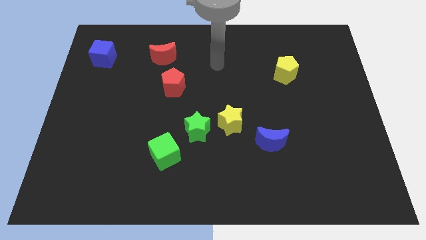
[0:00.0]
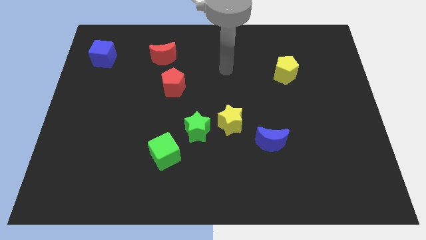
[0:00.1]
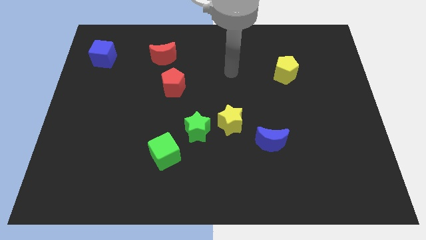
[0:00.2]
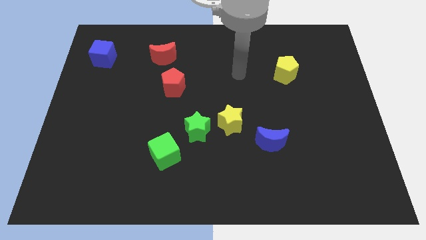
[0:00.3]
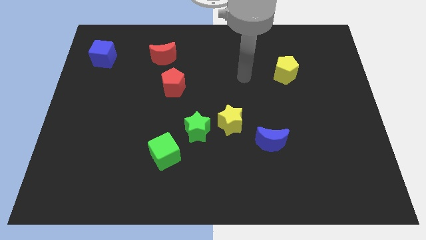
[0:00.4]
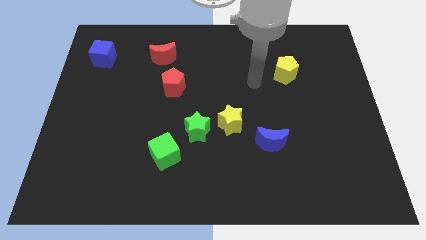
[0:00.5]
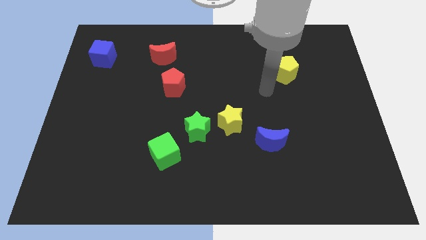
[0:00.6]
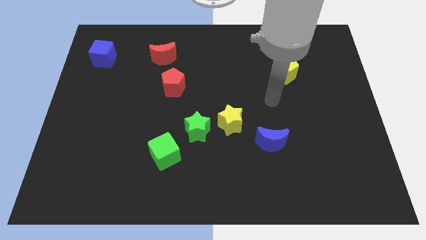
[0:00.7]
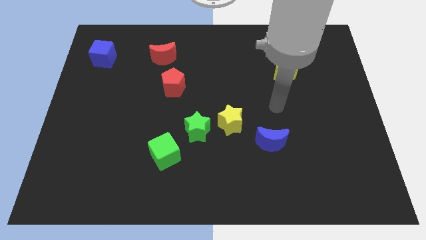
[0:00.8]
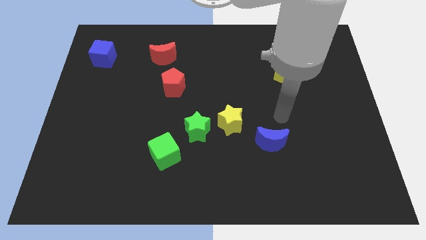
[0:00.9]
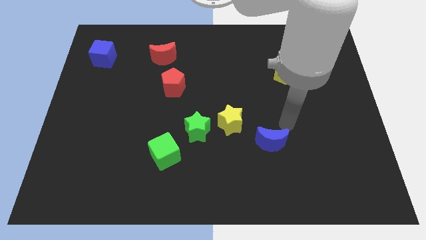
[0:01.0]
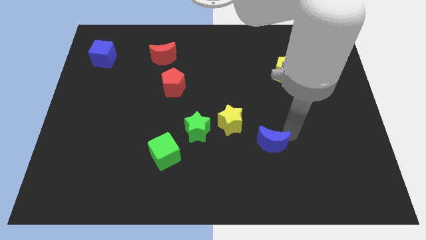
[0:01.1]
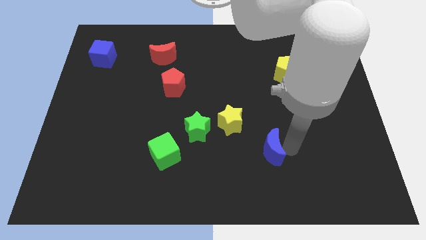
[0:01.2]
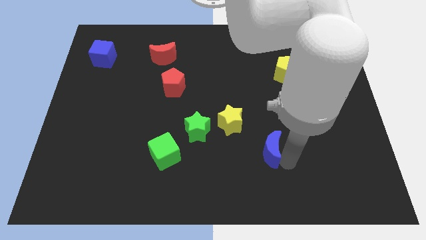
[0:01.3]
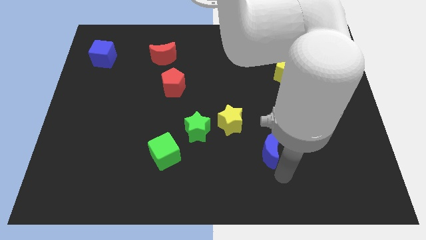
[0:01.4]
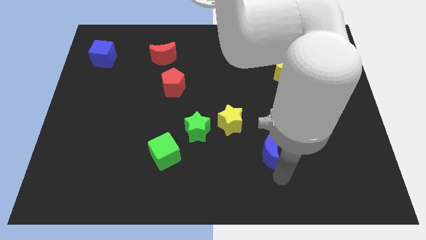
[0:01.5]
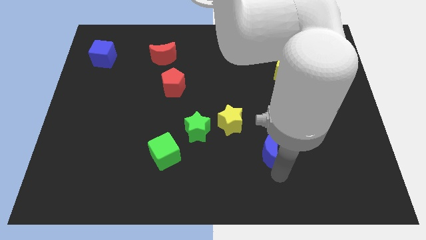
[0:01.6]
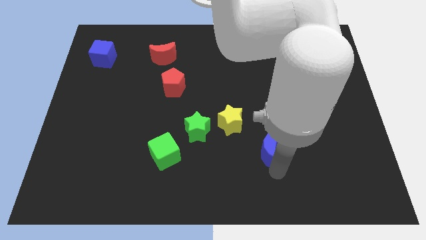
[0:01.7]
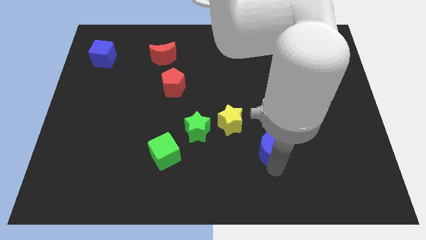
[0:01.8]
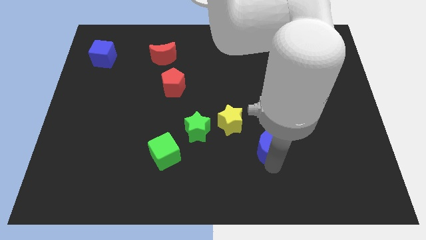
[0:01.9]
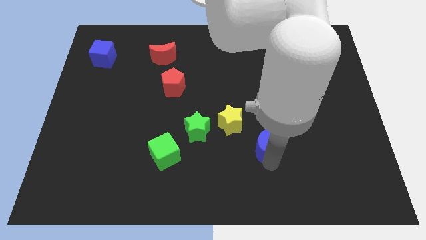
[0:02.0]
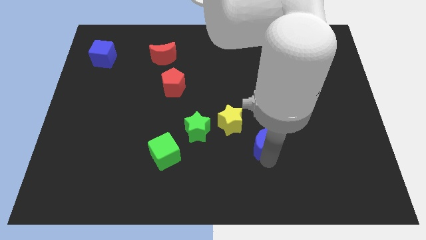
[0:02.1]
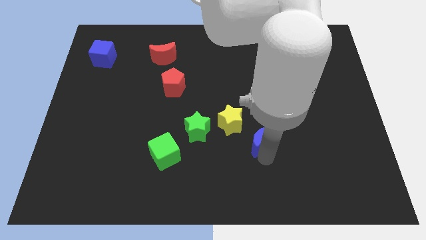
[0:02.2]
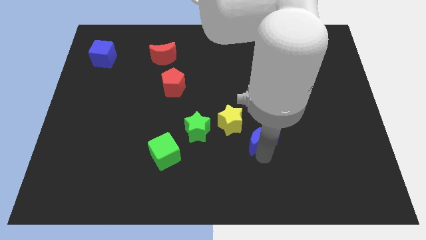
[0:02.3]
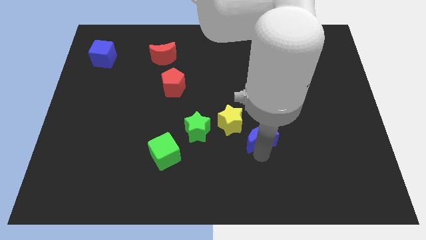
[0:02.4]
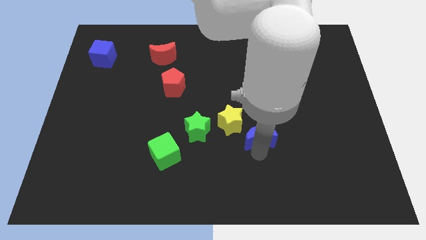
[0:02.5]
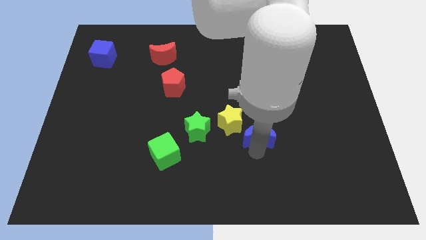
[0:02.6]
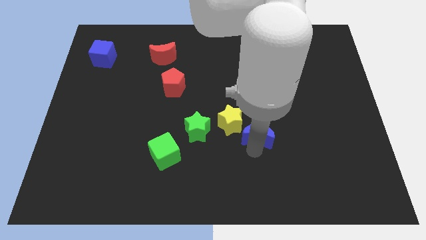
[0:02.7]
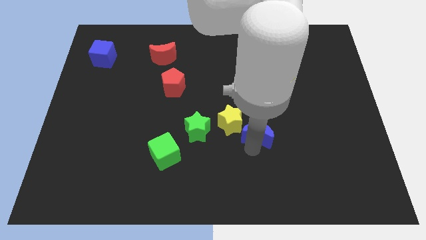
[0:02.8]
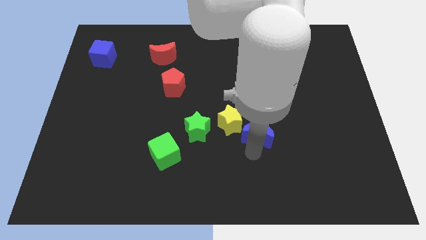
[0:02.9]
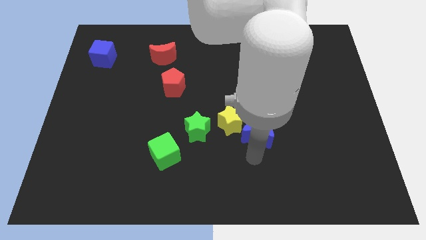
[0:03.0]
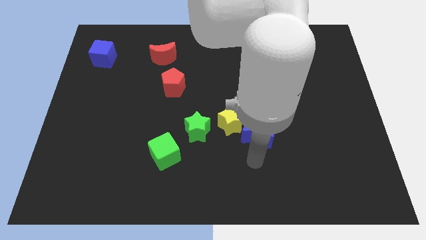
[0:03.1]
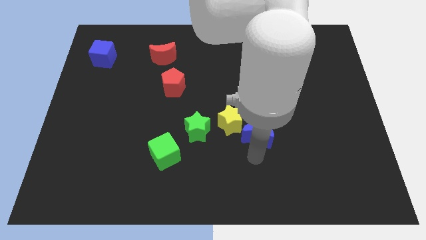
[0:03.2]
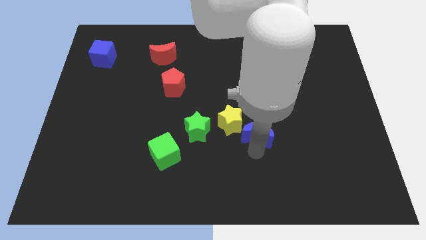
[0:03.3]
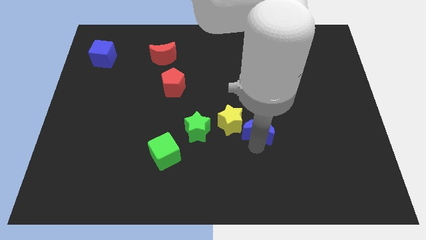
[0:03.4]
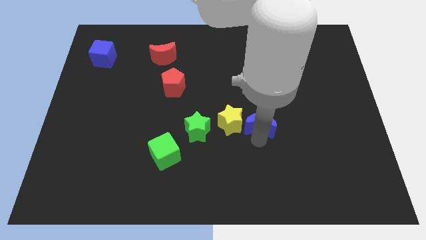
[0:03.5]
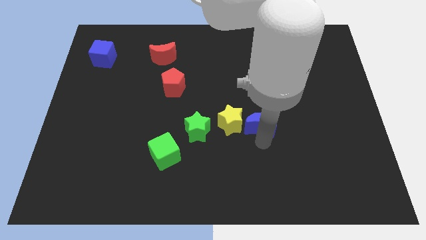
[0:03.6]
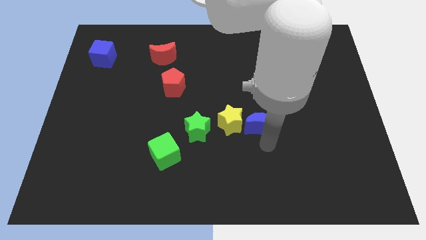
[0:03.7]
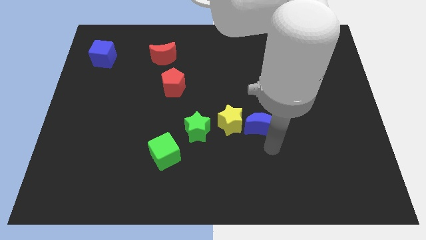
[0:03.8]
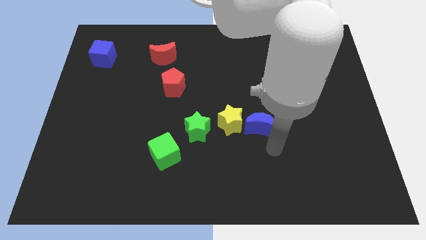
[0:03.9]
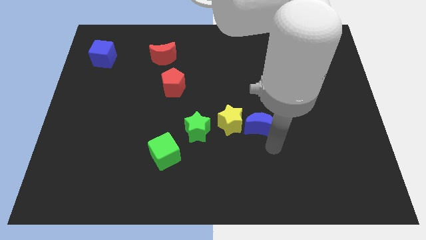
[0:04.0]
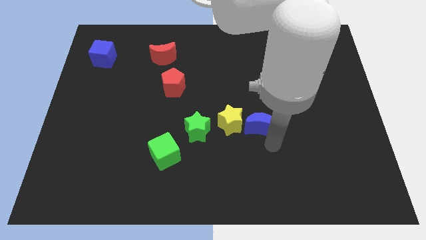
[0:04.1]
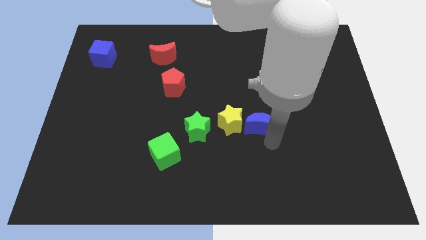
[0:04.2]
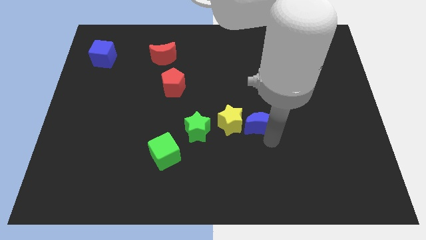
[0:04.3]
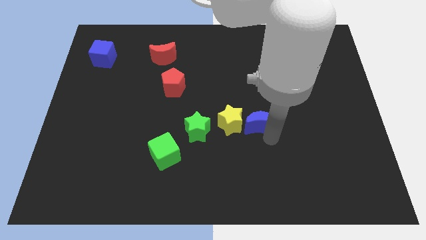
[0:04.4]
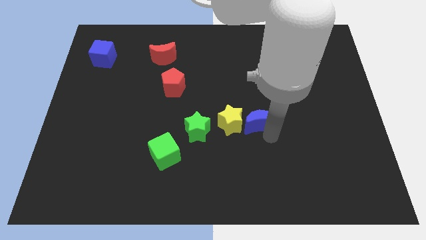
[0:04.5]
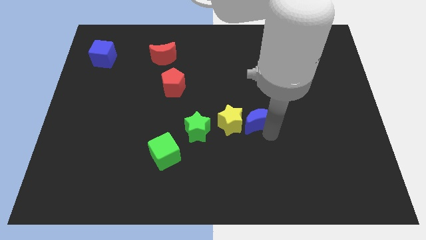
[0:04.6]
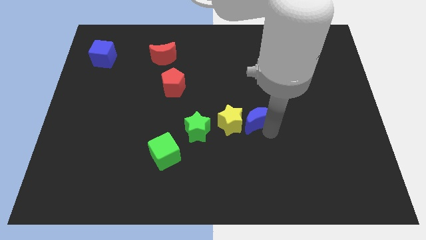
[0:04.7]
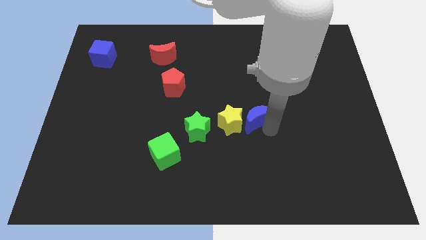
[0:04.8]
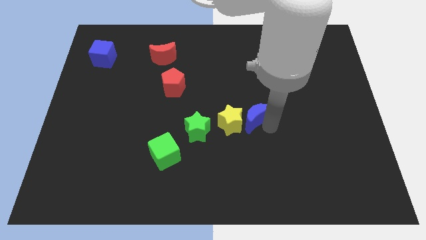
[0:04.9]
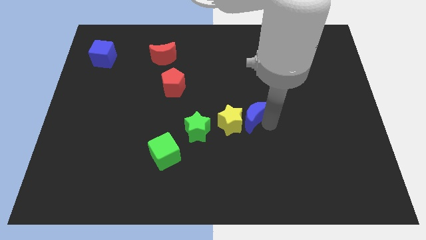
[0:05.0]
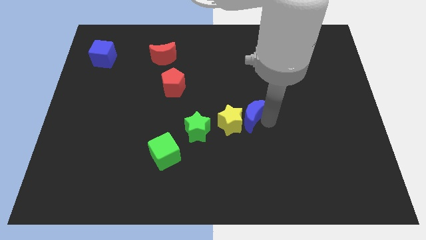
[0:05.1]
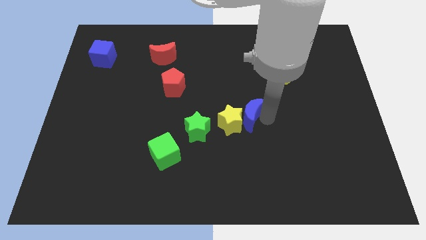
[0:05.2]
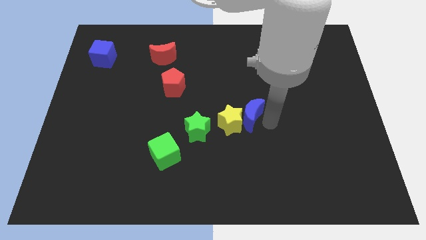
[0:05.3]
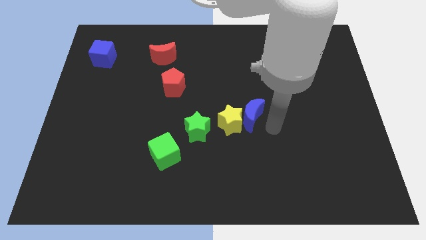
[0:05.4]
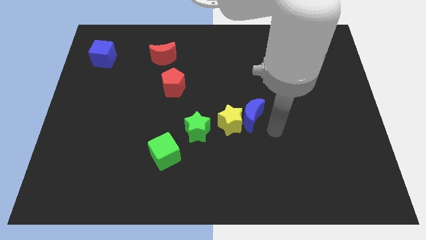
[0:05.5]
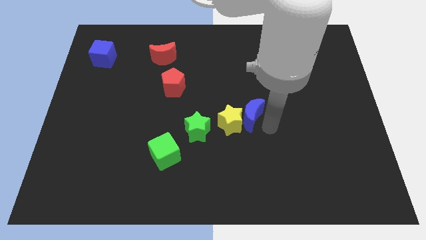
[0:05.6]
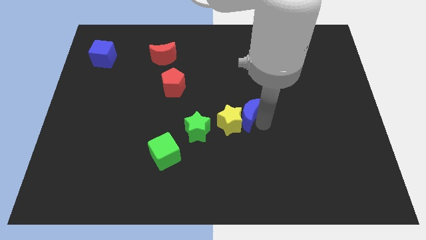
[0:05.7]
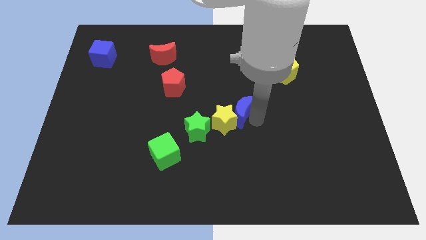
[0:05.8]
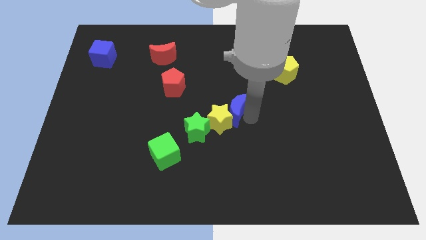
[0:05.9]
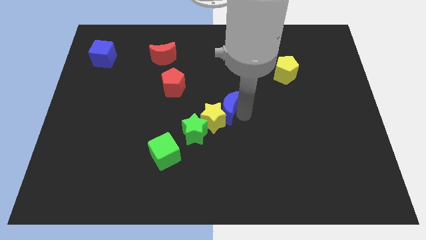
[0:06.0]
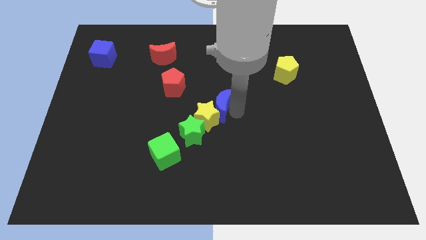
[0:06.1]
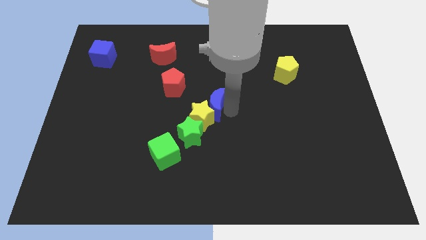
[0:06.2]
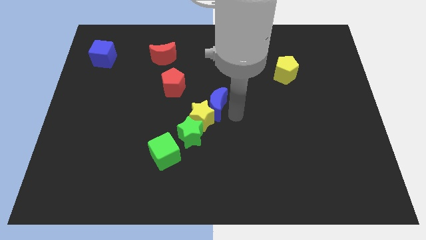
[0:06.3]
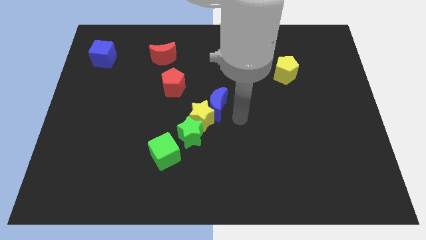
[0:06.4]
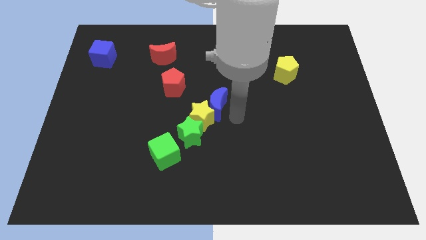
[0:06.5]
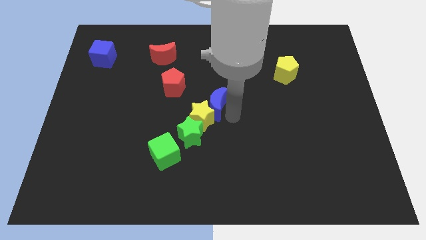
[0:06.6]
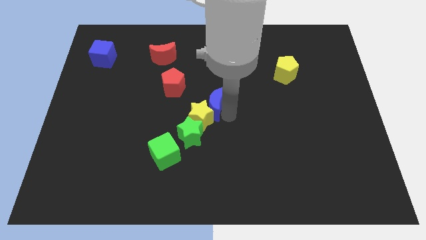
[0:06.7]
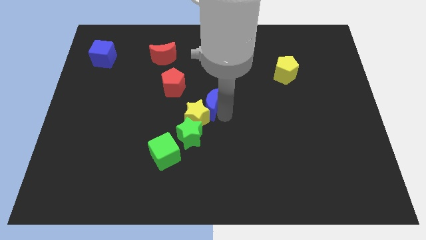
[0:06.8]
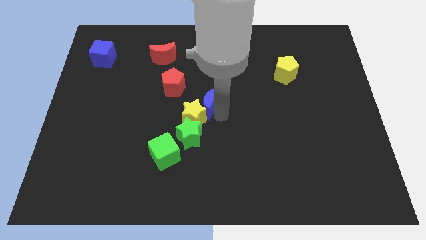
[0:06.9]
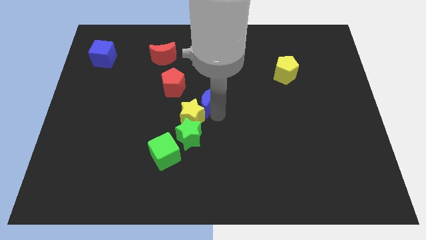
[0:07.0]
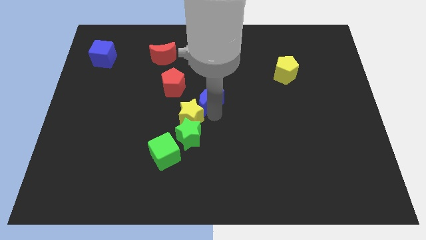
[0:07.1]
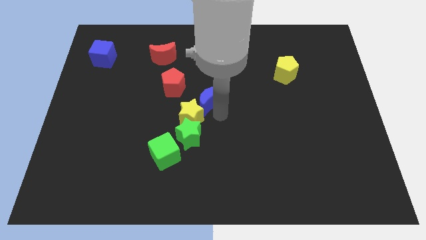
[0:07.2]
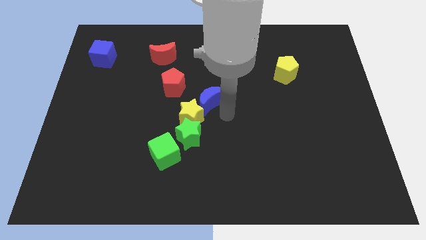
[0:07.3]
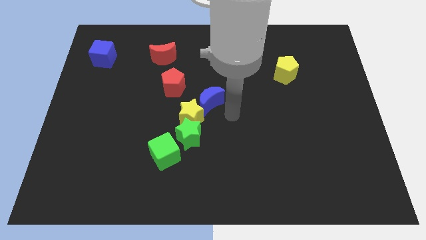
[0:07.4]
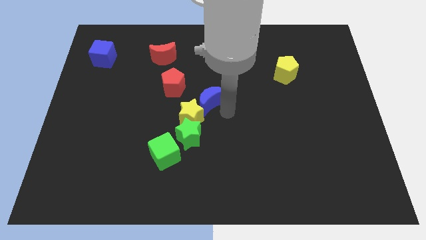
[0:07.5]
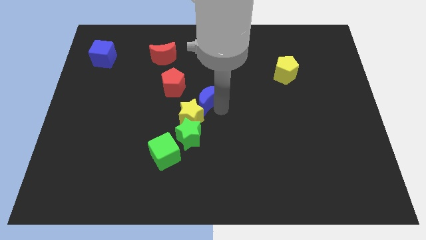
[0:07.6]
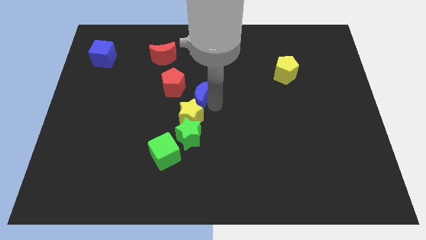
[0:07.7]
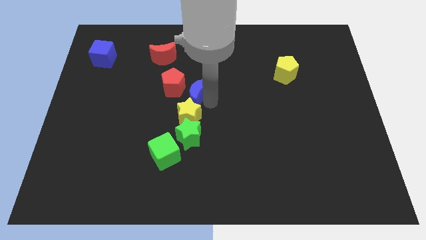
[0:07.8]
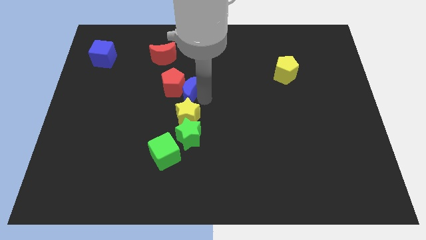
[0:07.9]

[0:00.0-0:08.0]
put the blue moon to the red pentagon
